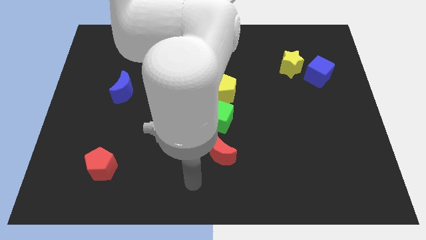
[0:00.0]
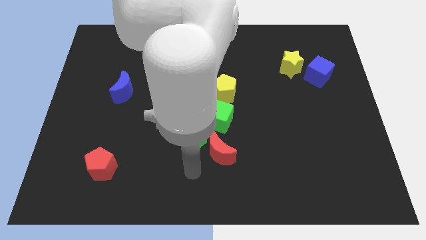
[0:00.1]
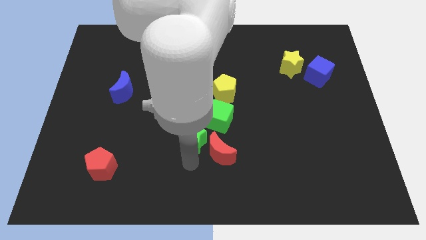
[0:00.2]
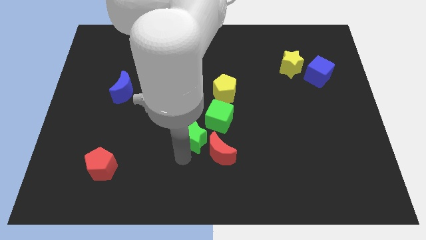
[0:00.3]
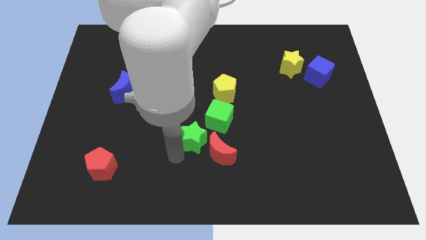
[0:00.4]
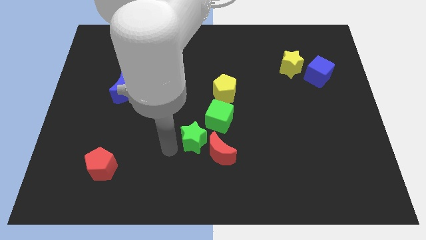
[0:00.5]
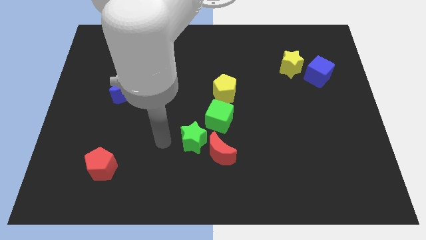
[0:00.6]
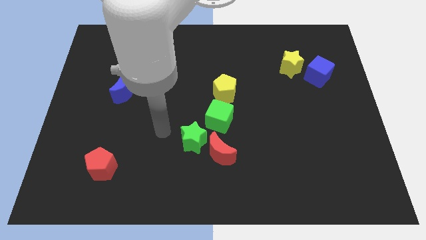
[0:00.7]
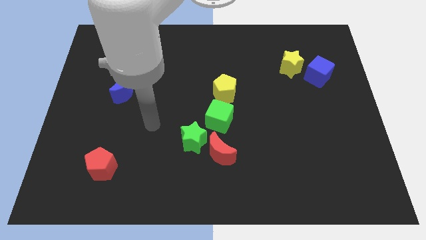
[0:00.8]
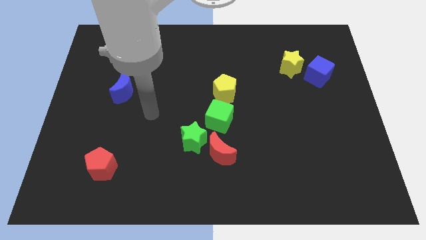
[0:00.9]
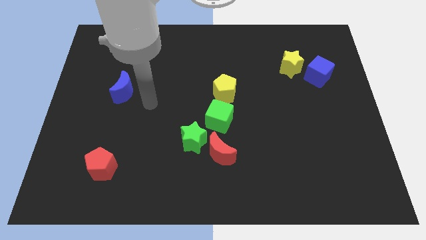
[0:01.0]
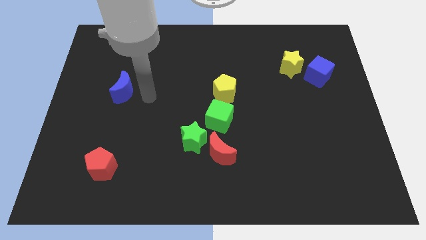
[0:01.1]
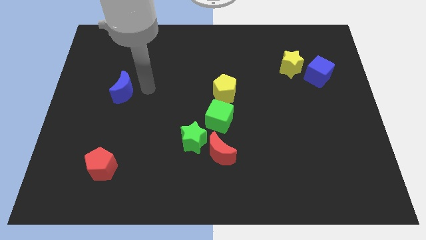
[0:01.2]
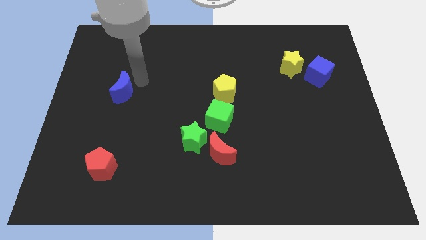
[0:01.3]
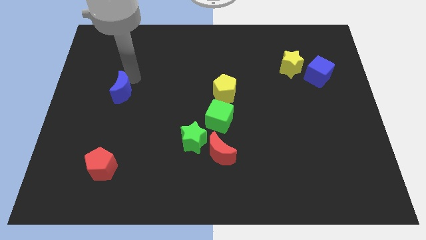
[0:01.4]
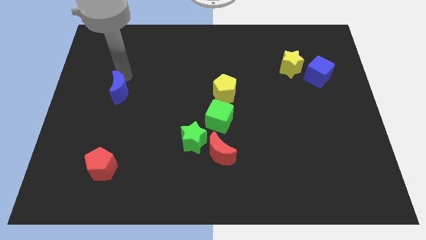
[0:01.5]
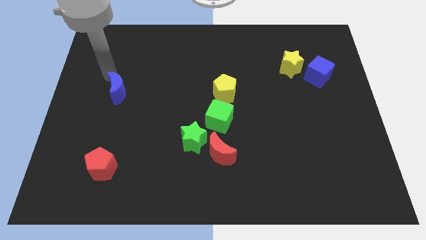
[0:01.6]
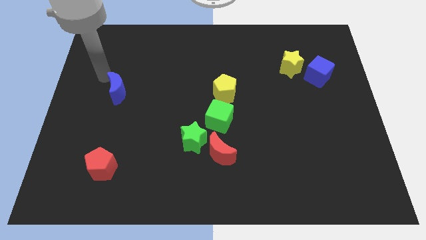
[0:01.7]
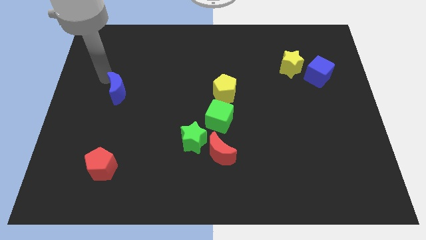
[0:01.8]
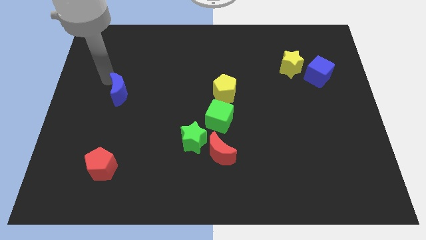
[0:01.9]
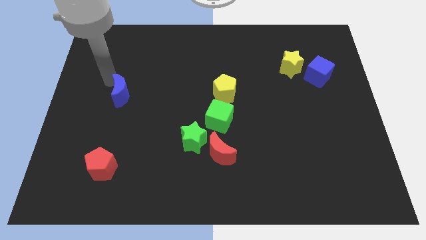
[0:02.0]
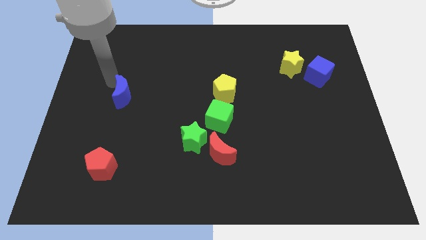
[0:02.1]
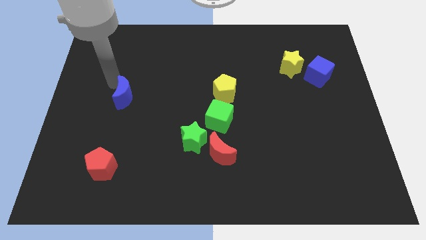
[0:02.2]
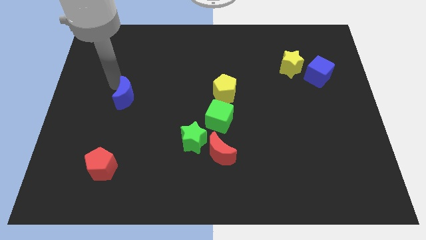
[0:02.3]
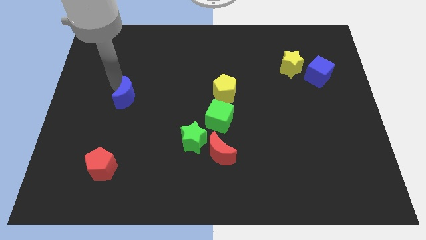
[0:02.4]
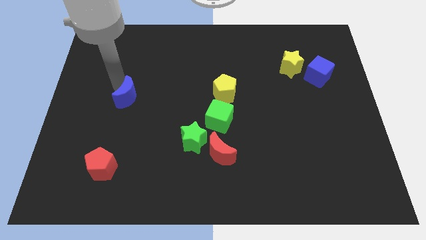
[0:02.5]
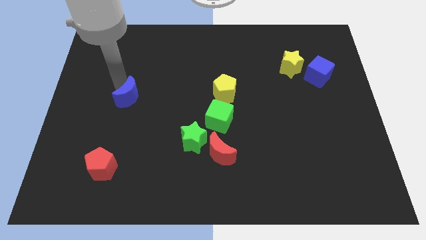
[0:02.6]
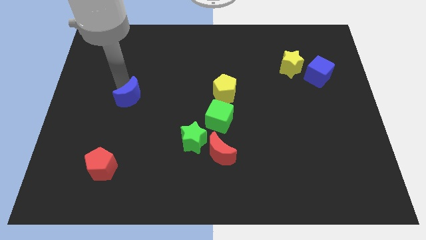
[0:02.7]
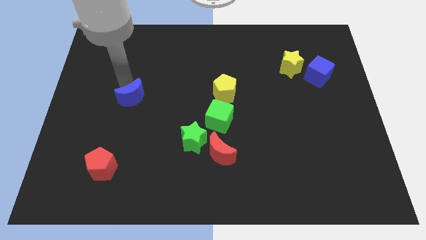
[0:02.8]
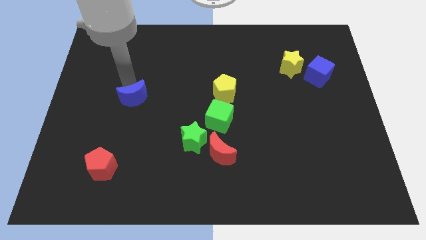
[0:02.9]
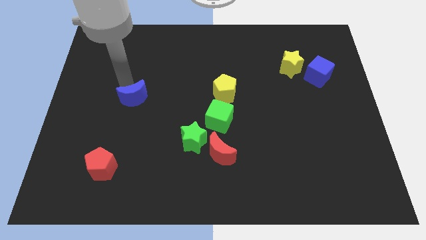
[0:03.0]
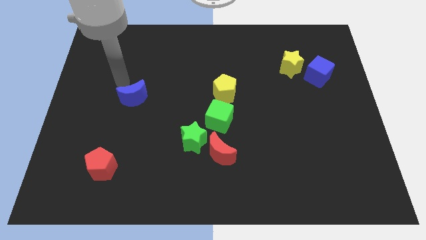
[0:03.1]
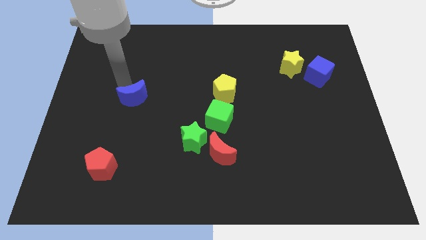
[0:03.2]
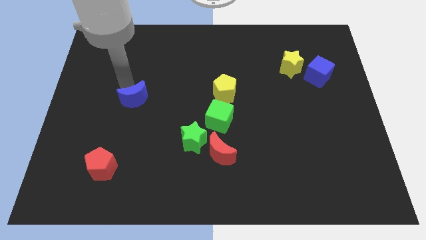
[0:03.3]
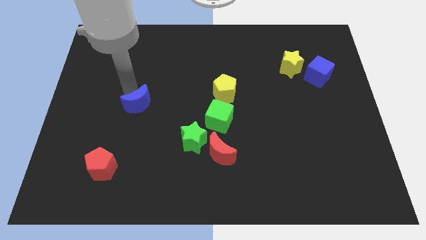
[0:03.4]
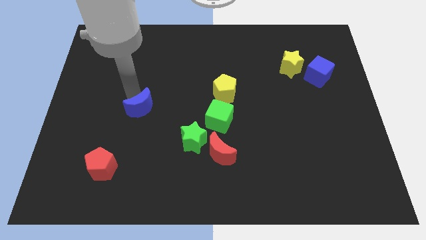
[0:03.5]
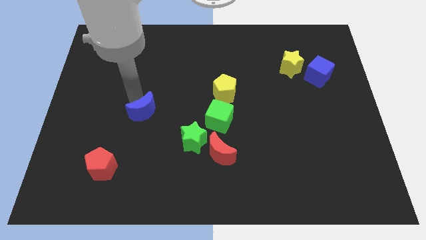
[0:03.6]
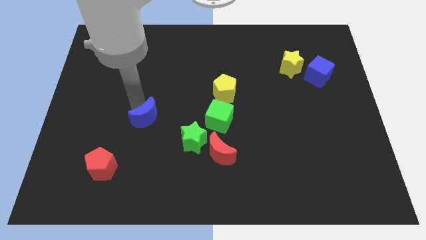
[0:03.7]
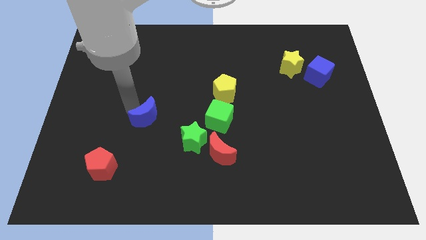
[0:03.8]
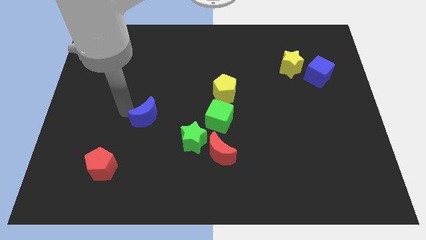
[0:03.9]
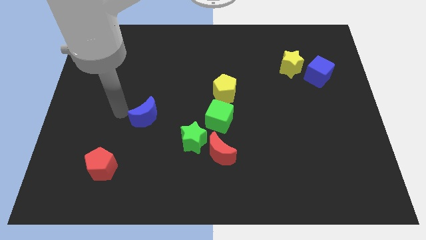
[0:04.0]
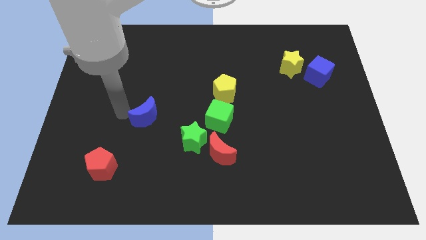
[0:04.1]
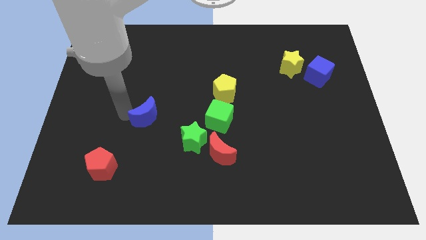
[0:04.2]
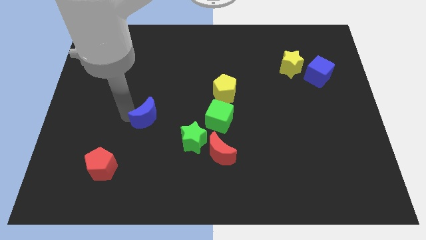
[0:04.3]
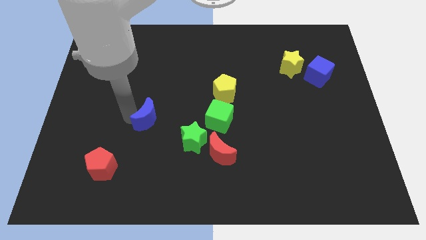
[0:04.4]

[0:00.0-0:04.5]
slide the blue moon to the top left side of the green star

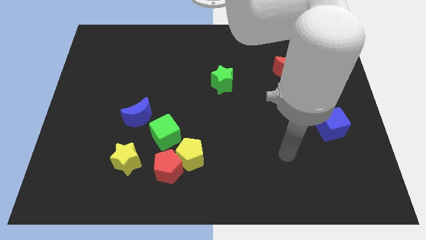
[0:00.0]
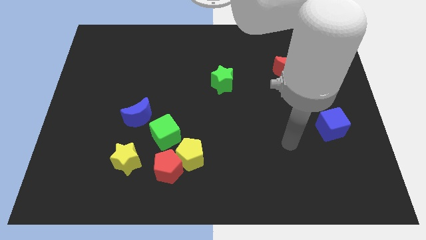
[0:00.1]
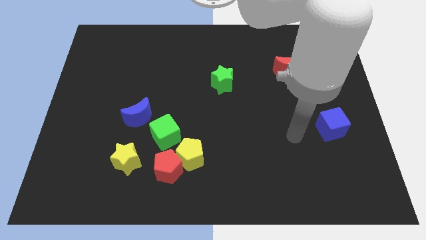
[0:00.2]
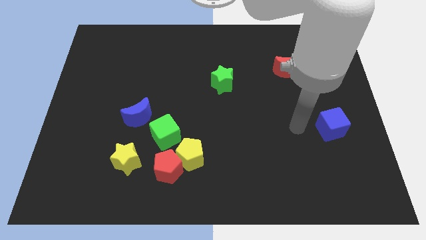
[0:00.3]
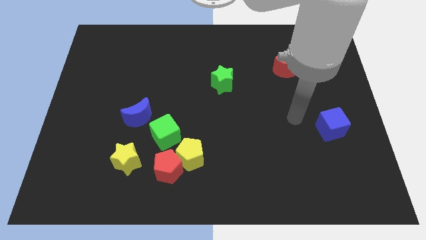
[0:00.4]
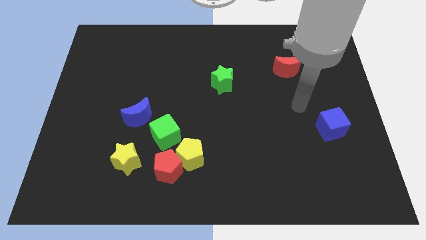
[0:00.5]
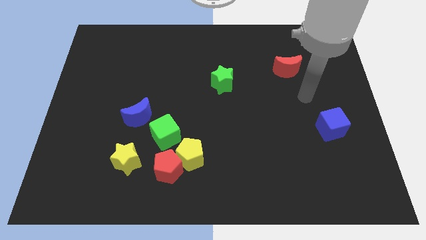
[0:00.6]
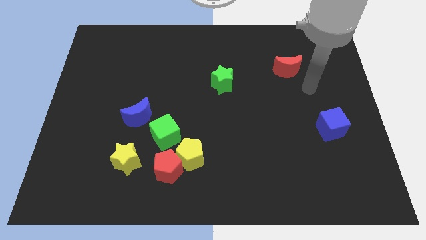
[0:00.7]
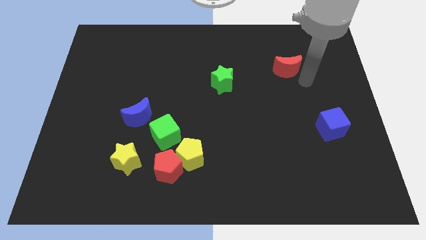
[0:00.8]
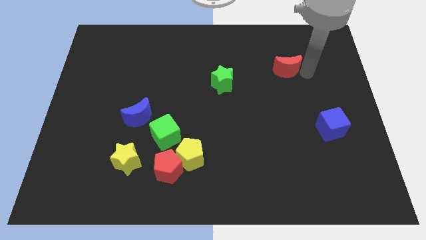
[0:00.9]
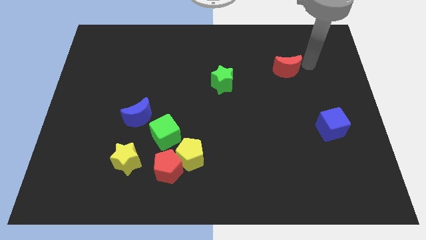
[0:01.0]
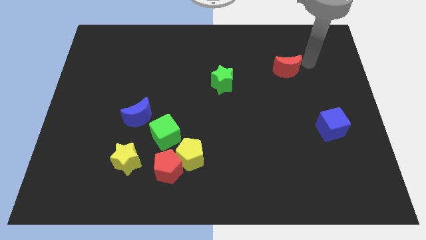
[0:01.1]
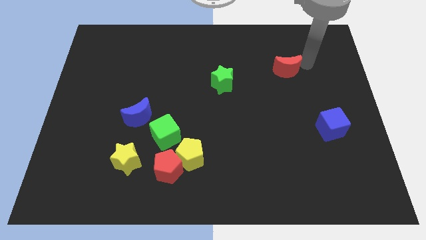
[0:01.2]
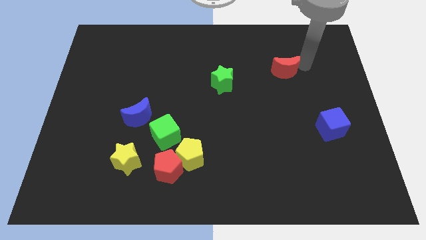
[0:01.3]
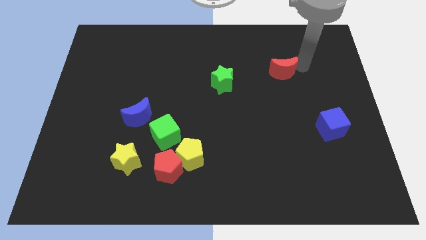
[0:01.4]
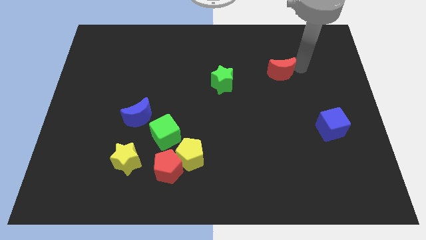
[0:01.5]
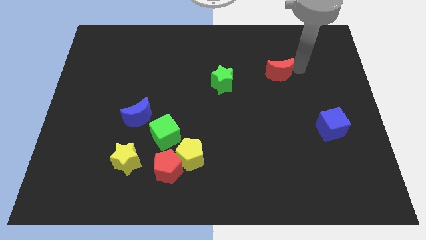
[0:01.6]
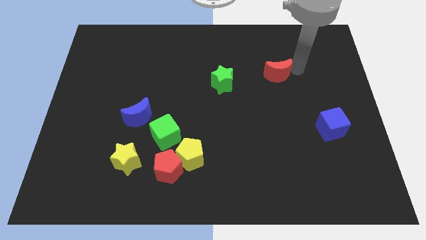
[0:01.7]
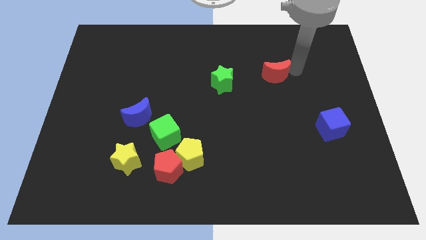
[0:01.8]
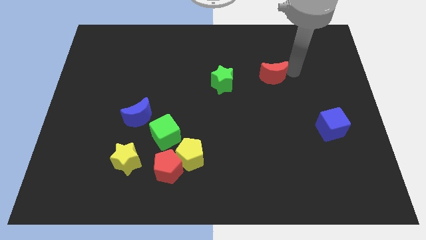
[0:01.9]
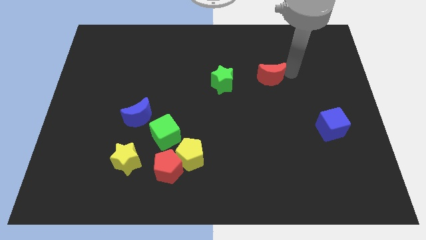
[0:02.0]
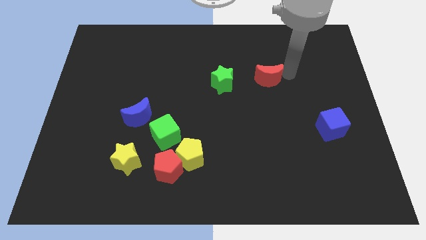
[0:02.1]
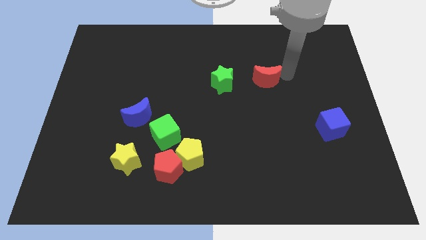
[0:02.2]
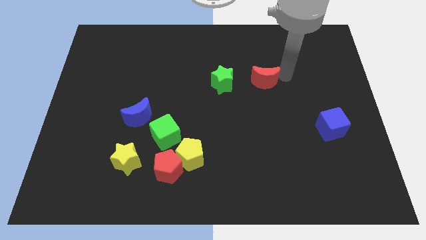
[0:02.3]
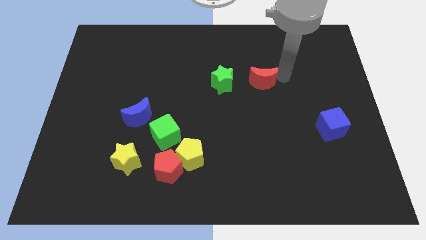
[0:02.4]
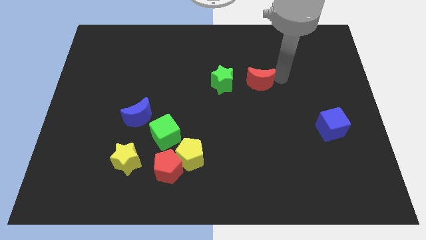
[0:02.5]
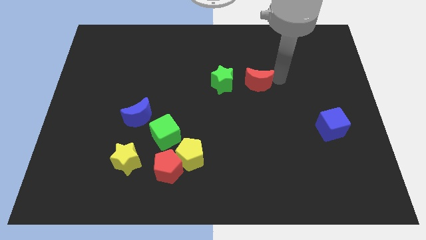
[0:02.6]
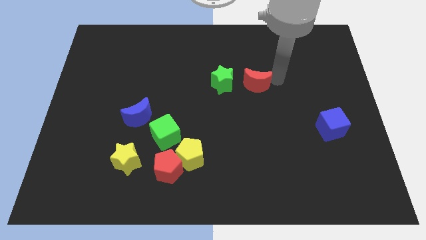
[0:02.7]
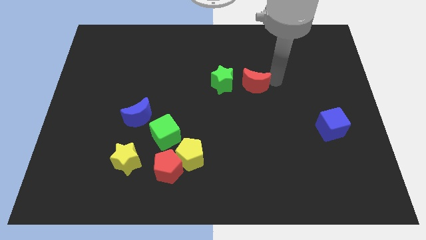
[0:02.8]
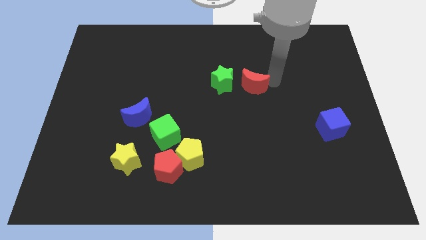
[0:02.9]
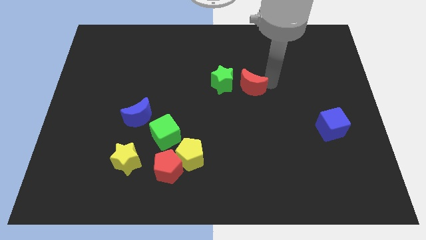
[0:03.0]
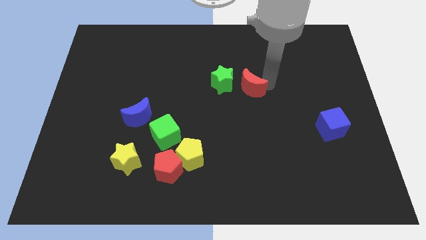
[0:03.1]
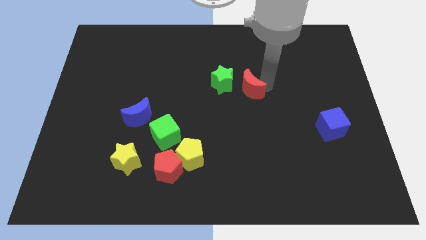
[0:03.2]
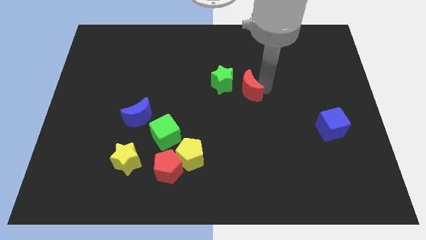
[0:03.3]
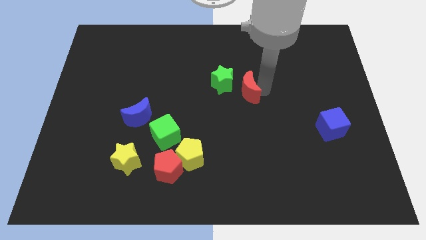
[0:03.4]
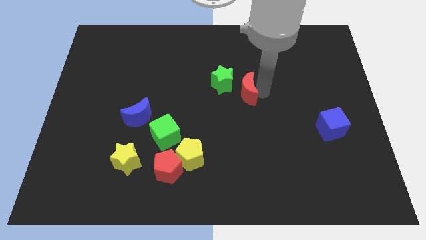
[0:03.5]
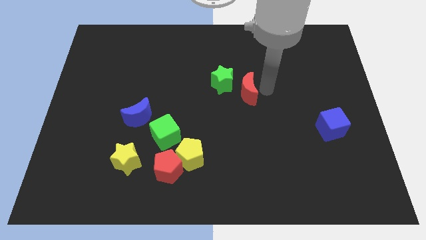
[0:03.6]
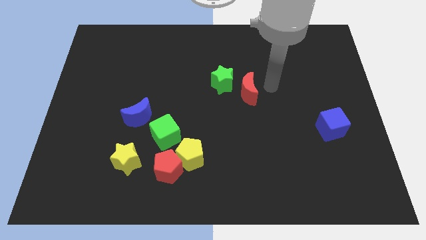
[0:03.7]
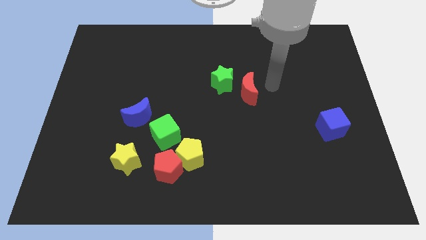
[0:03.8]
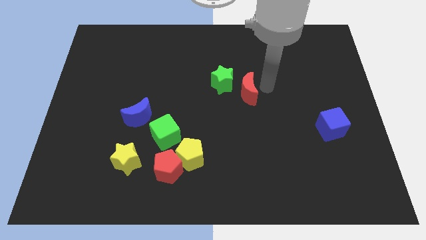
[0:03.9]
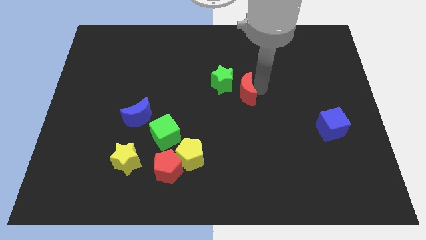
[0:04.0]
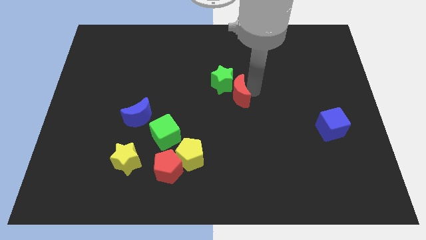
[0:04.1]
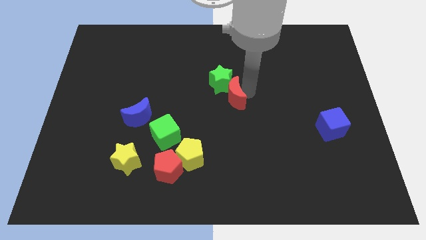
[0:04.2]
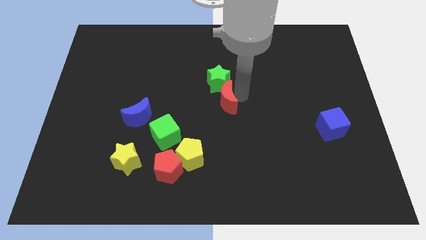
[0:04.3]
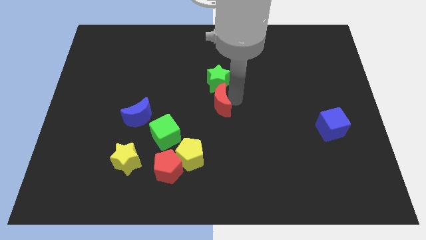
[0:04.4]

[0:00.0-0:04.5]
push the red moon to the bottom left of the green star
